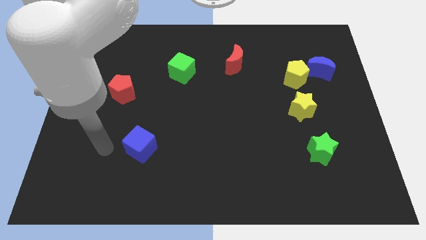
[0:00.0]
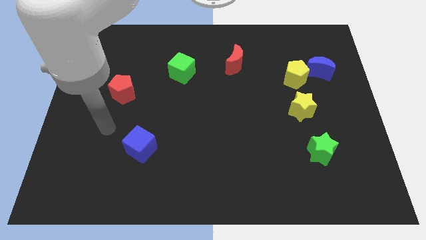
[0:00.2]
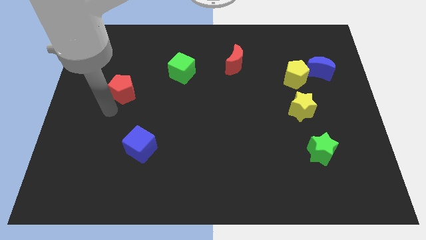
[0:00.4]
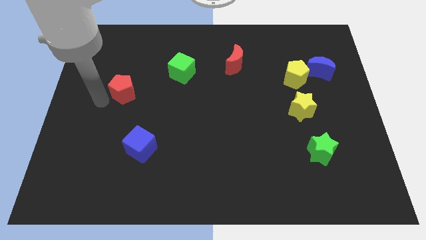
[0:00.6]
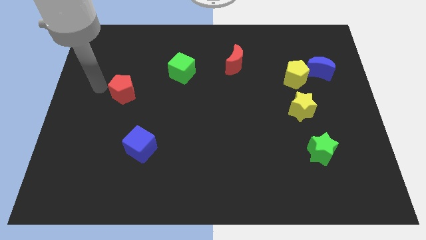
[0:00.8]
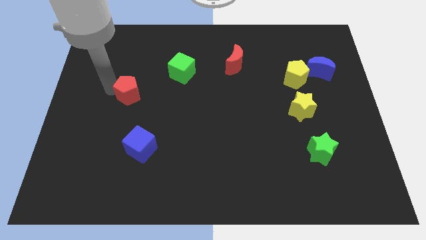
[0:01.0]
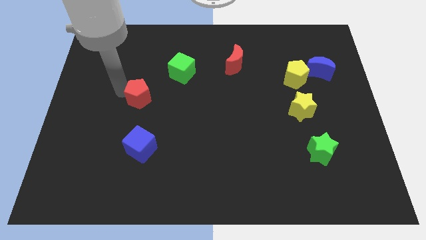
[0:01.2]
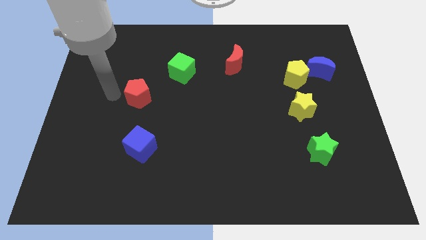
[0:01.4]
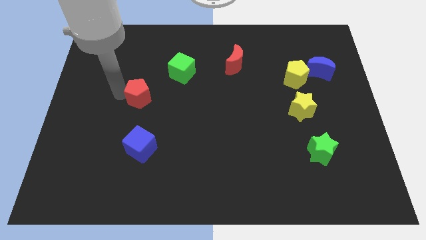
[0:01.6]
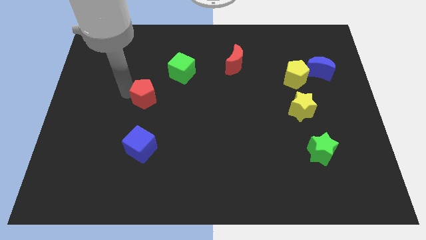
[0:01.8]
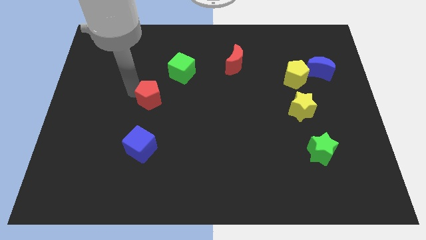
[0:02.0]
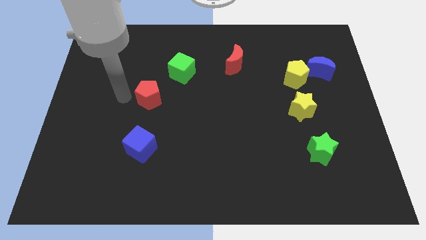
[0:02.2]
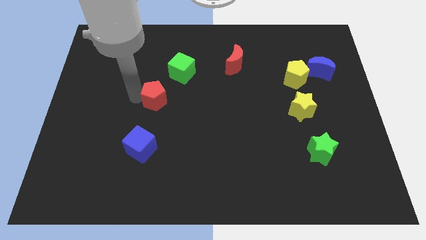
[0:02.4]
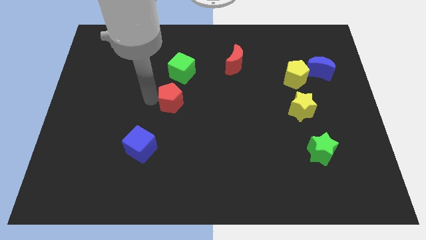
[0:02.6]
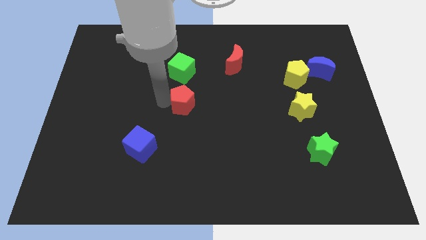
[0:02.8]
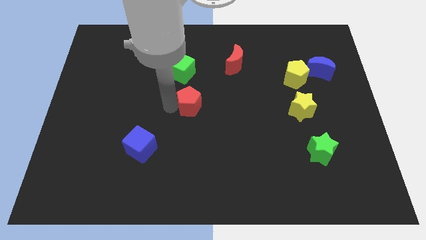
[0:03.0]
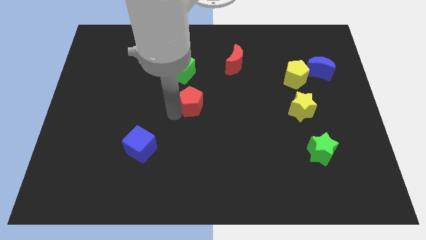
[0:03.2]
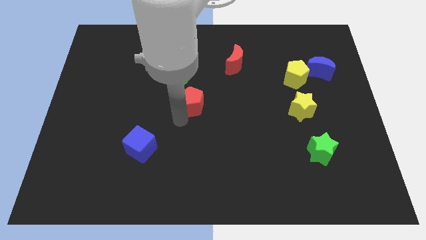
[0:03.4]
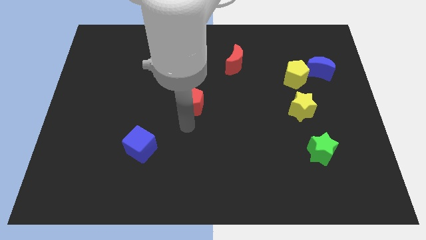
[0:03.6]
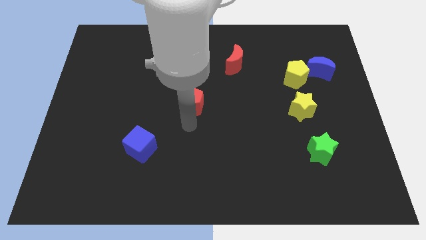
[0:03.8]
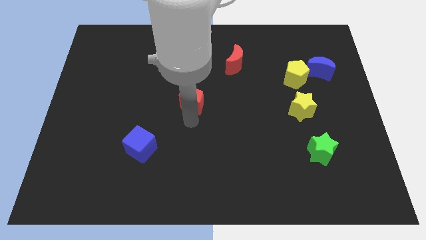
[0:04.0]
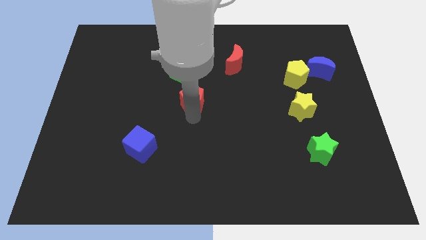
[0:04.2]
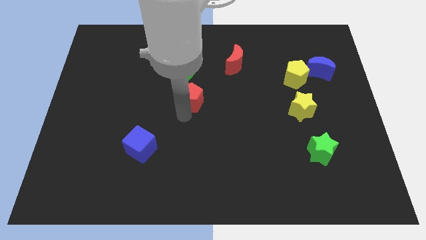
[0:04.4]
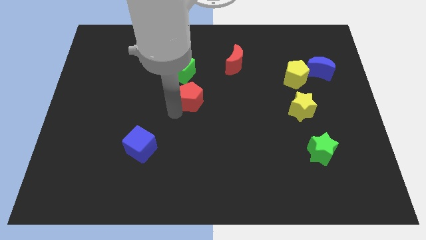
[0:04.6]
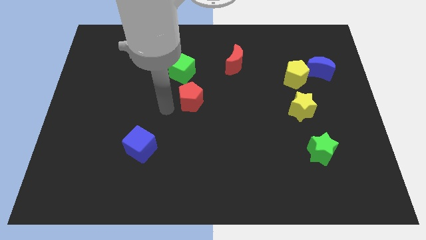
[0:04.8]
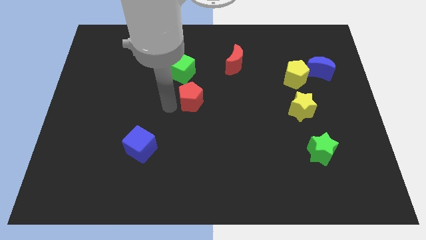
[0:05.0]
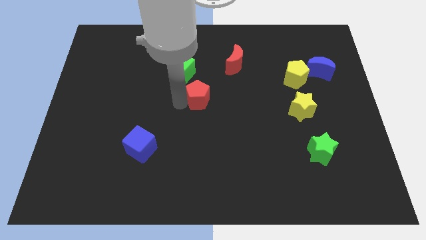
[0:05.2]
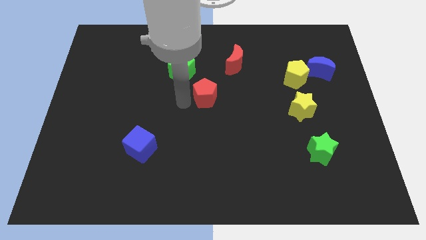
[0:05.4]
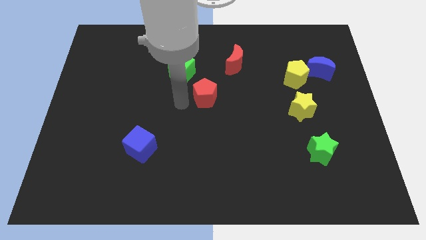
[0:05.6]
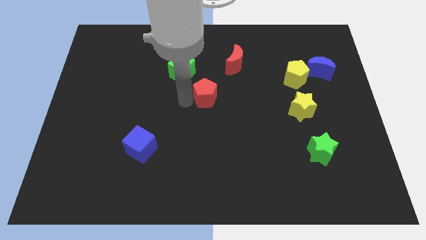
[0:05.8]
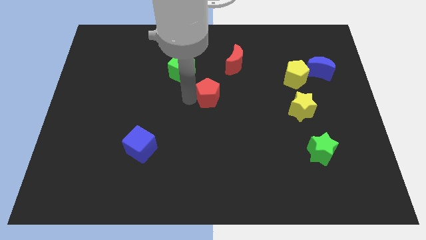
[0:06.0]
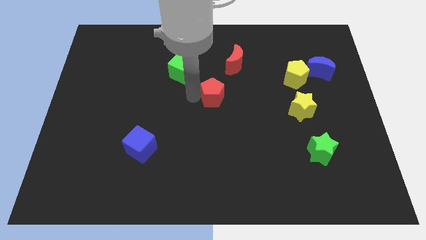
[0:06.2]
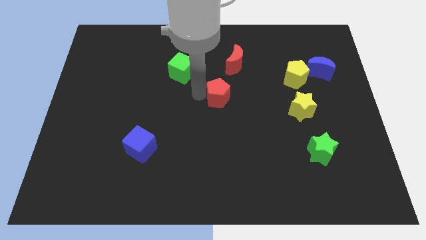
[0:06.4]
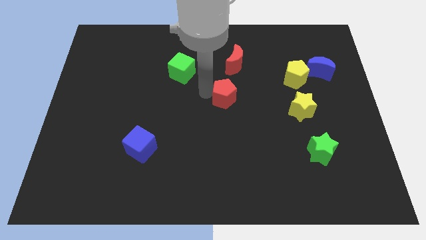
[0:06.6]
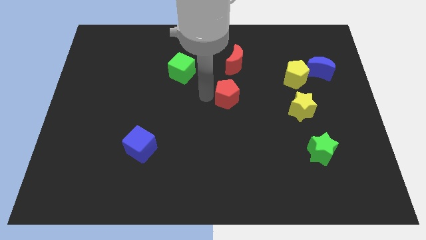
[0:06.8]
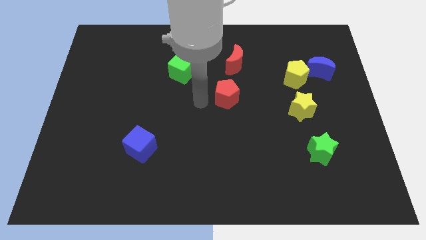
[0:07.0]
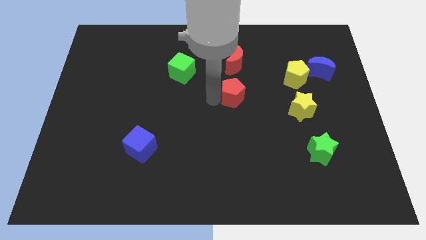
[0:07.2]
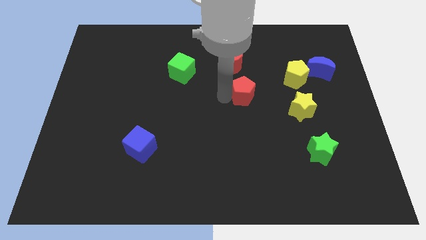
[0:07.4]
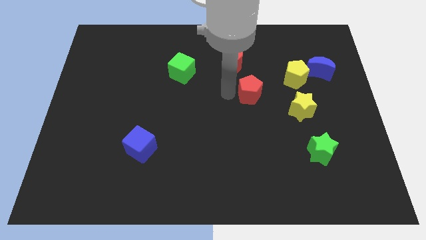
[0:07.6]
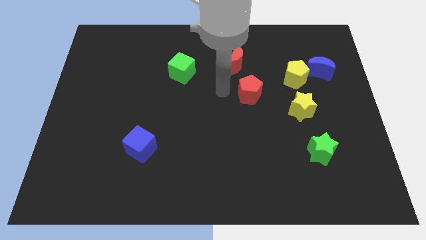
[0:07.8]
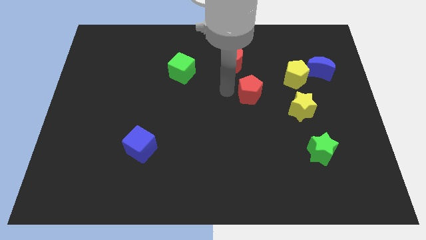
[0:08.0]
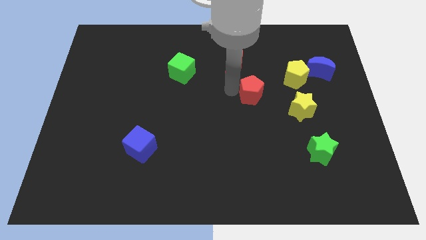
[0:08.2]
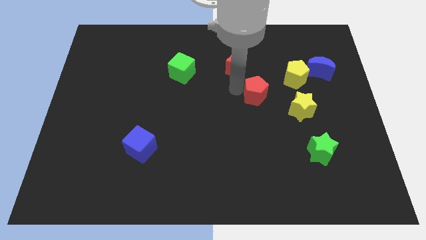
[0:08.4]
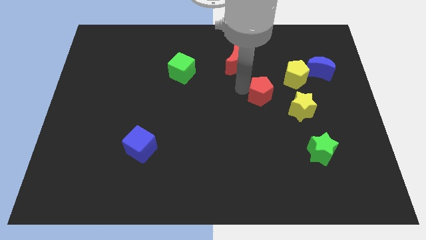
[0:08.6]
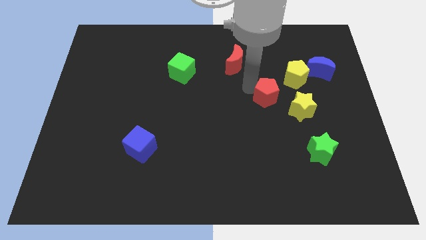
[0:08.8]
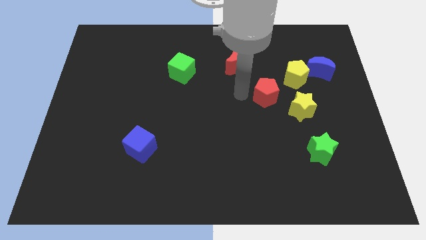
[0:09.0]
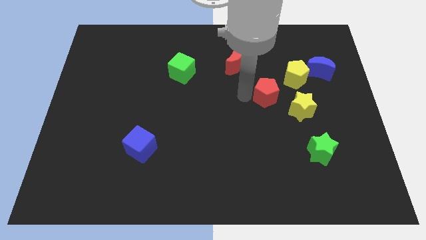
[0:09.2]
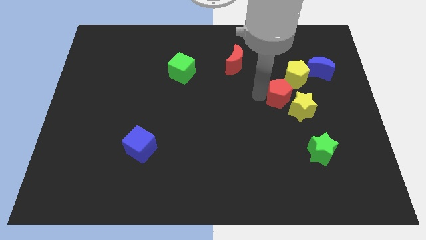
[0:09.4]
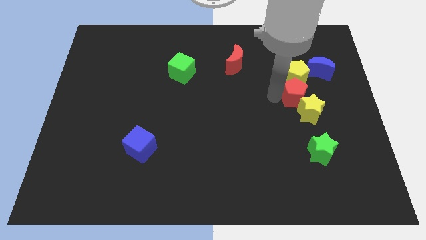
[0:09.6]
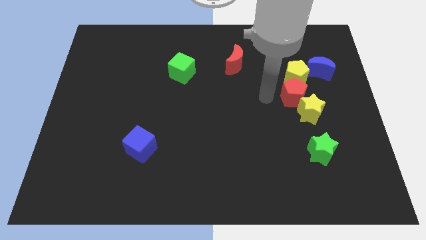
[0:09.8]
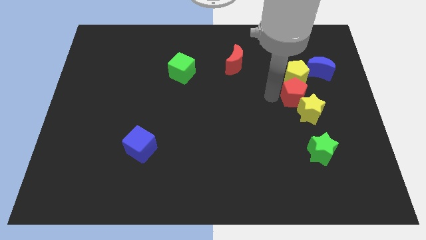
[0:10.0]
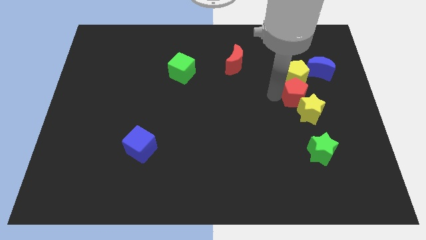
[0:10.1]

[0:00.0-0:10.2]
move the red pentagon to the bottom right side of the yellow pentagon

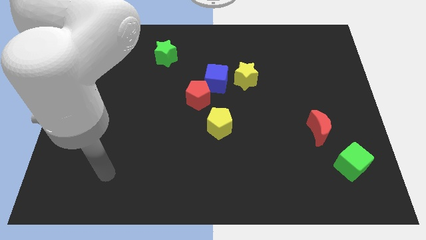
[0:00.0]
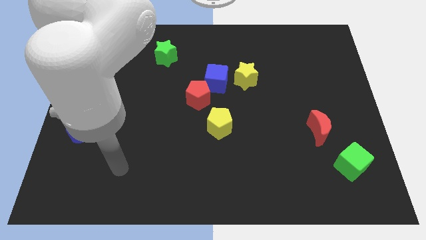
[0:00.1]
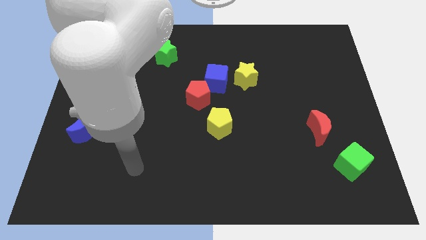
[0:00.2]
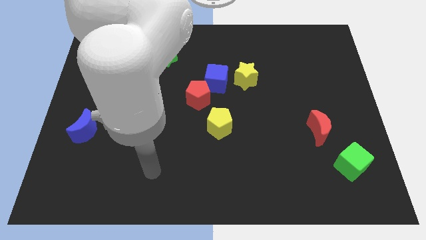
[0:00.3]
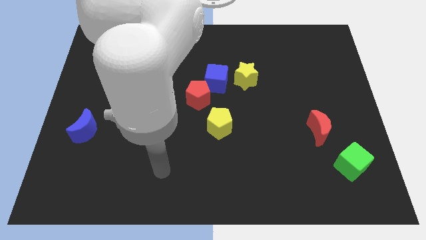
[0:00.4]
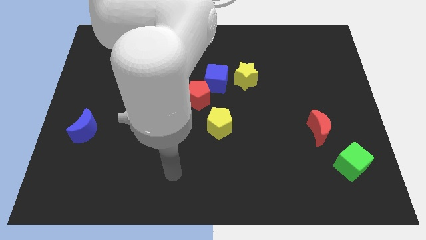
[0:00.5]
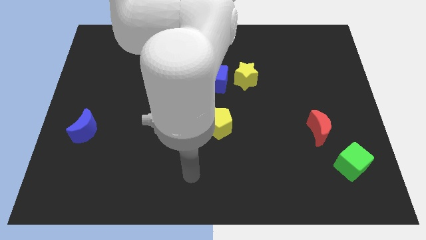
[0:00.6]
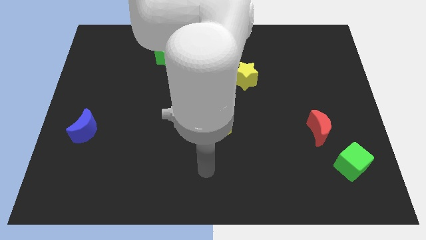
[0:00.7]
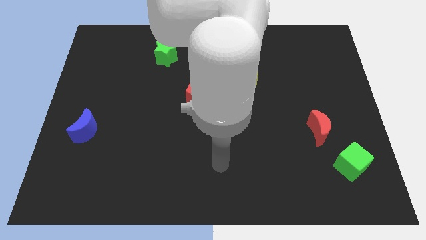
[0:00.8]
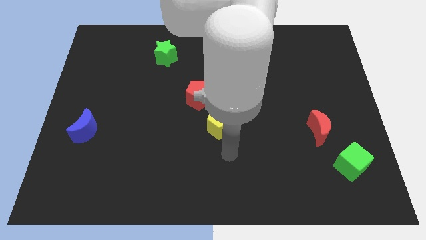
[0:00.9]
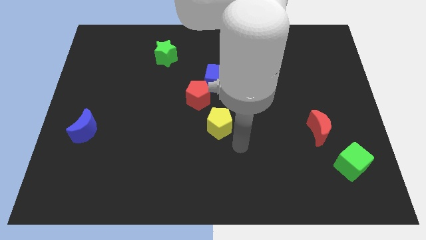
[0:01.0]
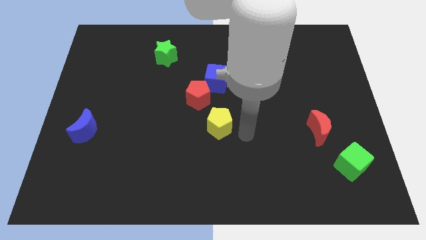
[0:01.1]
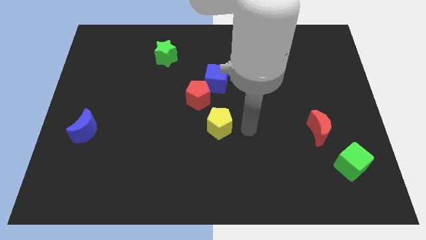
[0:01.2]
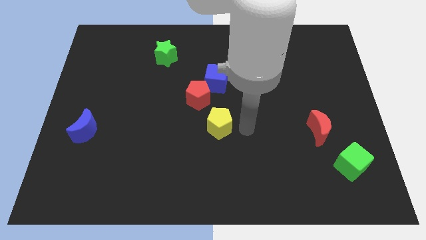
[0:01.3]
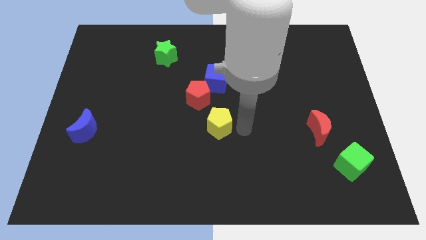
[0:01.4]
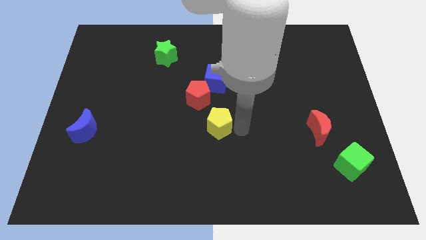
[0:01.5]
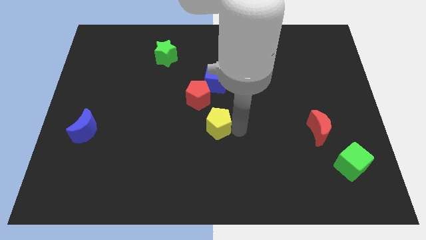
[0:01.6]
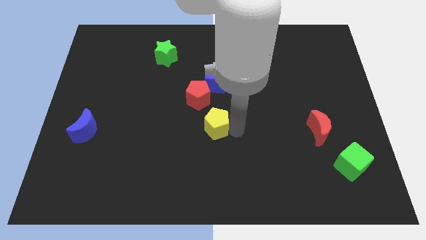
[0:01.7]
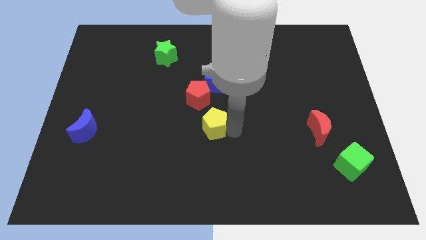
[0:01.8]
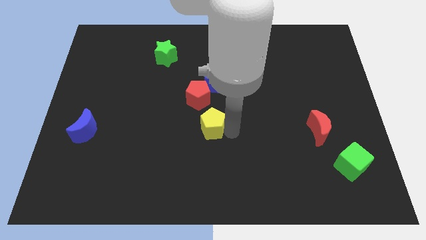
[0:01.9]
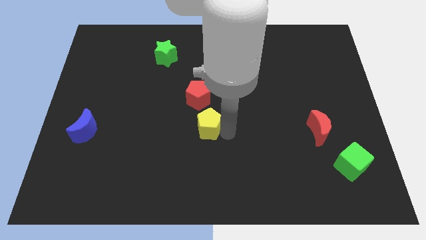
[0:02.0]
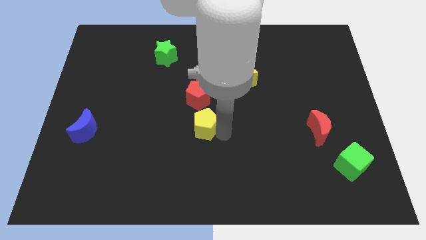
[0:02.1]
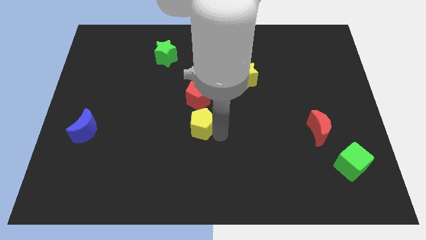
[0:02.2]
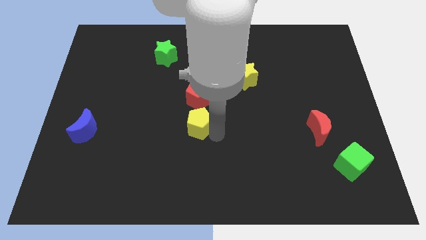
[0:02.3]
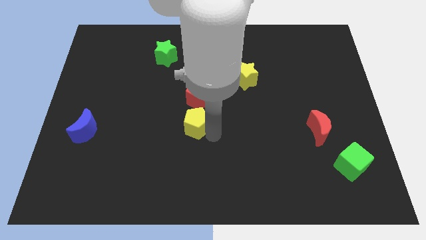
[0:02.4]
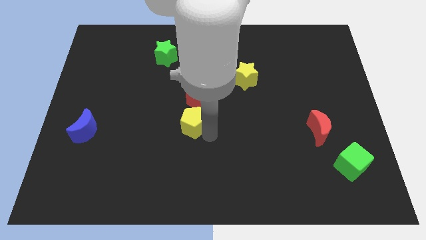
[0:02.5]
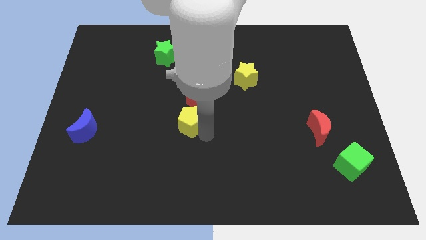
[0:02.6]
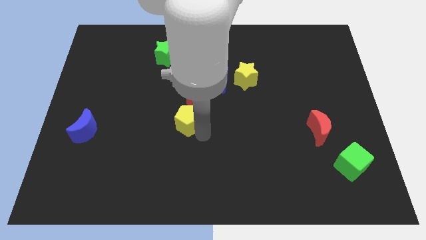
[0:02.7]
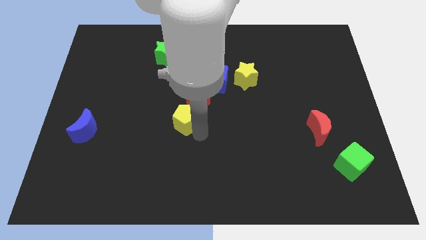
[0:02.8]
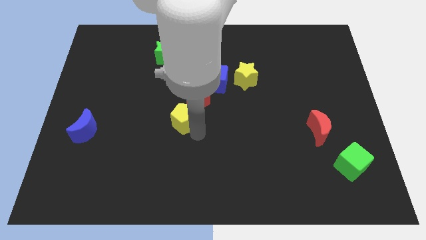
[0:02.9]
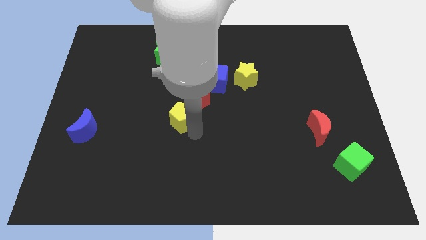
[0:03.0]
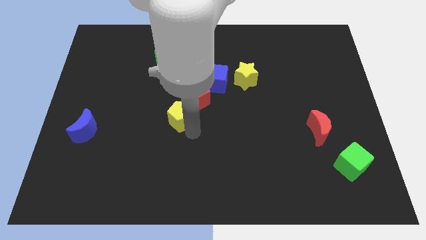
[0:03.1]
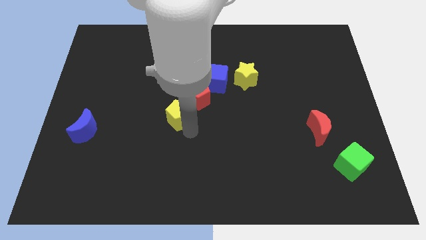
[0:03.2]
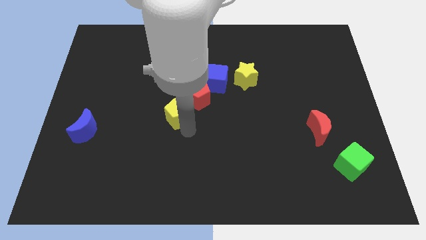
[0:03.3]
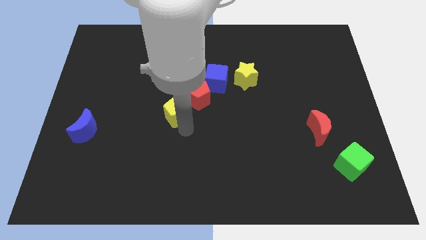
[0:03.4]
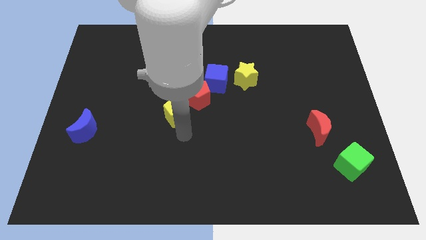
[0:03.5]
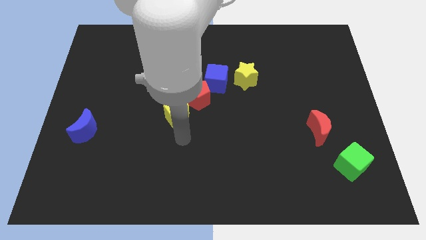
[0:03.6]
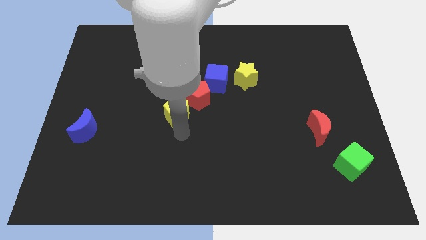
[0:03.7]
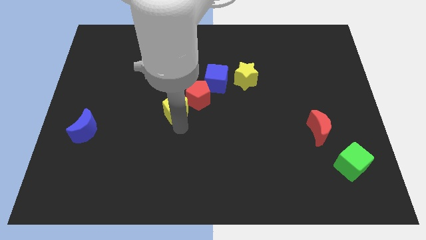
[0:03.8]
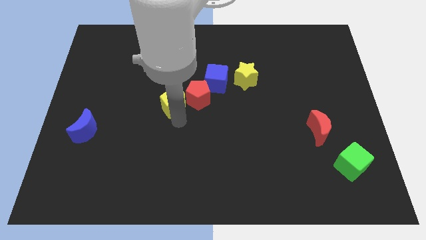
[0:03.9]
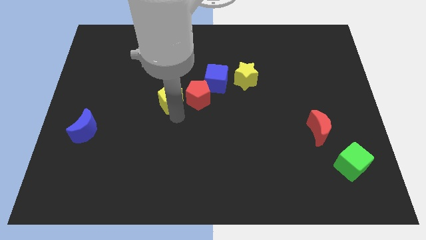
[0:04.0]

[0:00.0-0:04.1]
put the yellow pentagon to the bottom side of the green star
